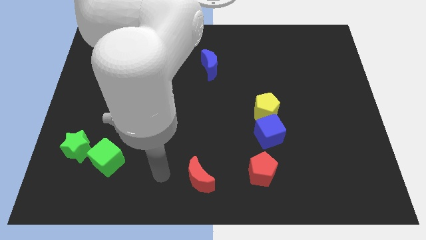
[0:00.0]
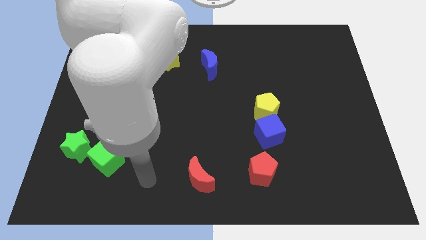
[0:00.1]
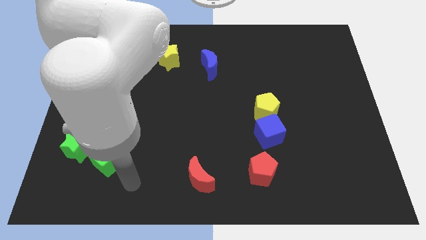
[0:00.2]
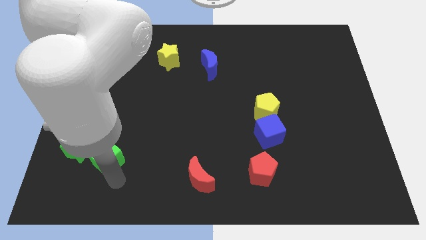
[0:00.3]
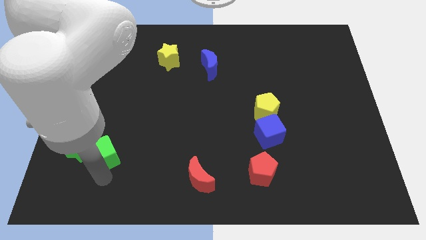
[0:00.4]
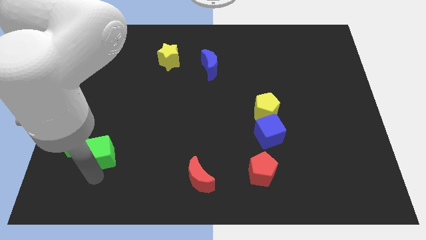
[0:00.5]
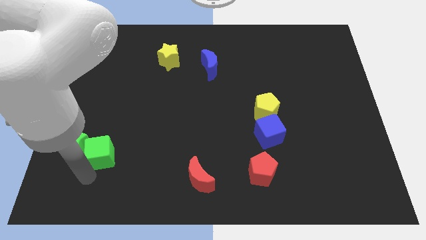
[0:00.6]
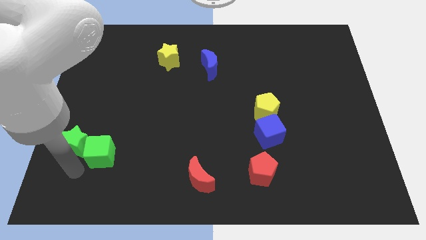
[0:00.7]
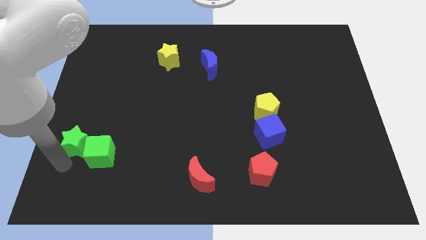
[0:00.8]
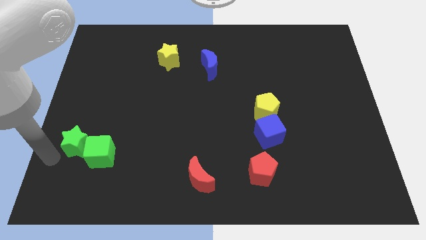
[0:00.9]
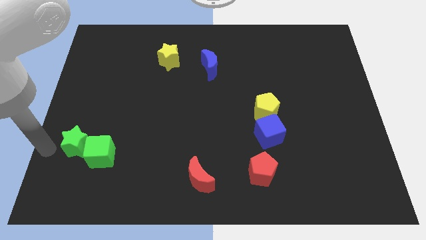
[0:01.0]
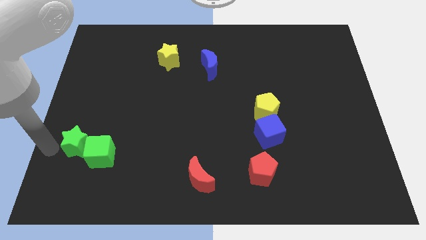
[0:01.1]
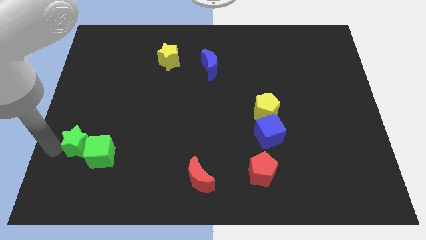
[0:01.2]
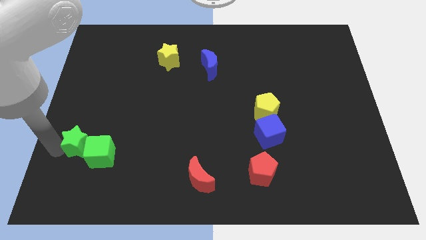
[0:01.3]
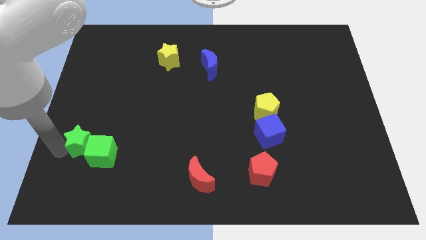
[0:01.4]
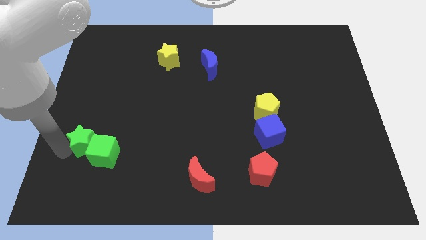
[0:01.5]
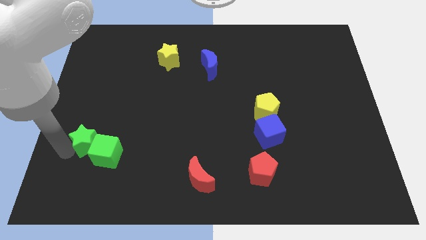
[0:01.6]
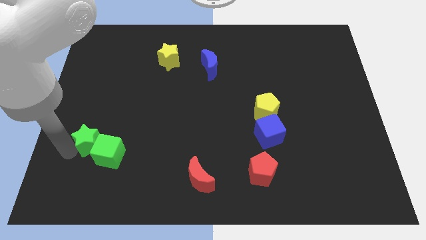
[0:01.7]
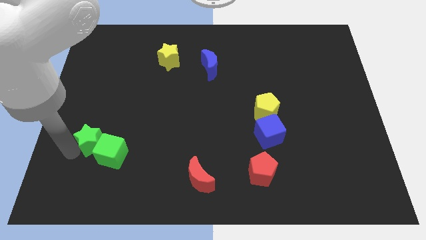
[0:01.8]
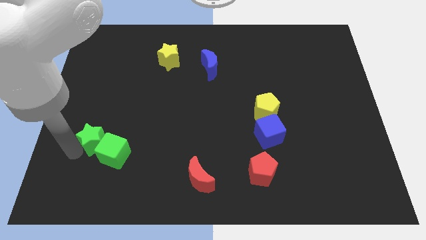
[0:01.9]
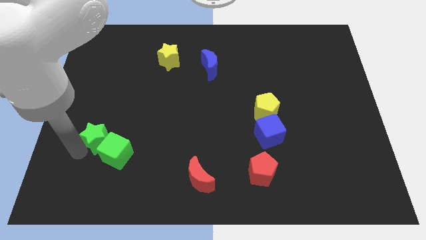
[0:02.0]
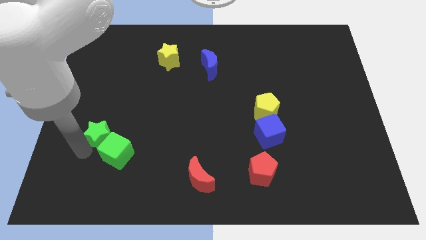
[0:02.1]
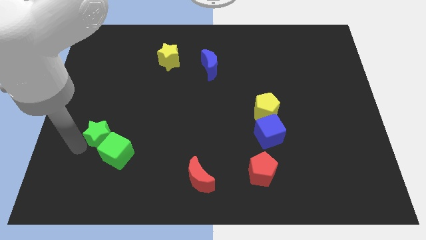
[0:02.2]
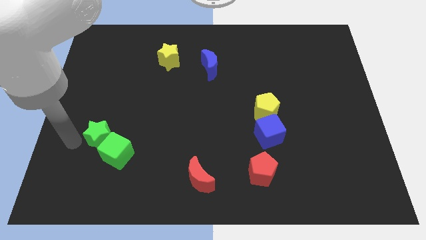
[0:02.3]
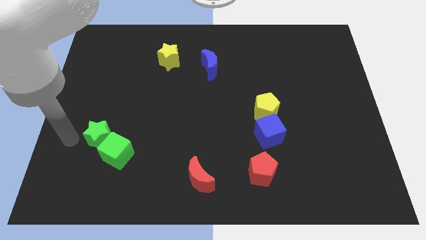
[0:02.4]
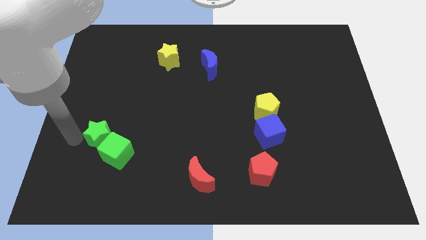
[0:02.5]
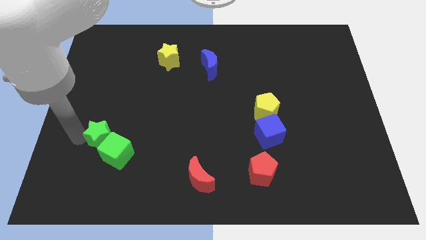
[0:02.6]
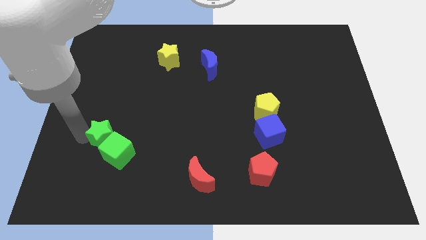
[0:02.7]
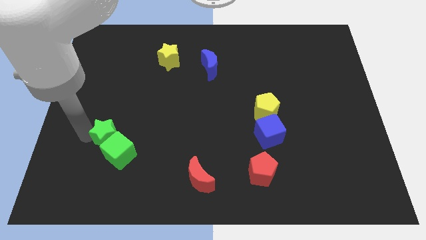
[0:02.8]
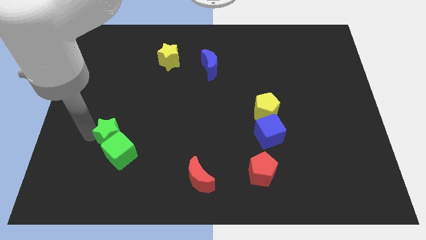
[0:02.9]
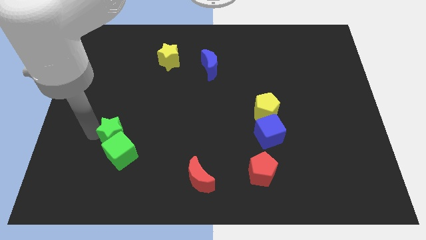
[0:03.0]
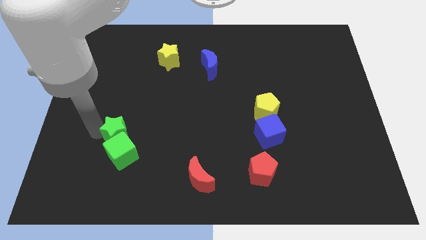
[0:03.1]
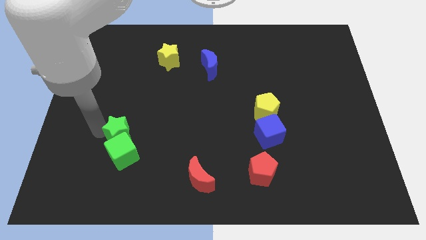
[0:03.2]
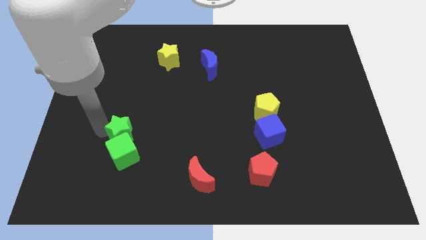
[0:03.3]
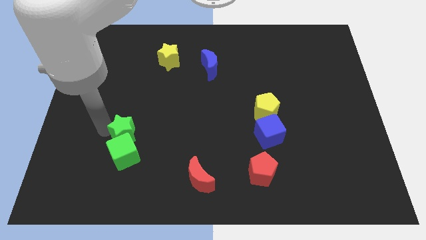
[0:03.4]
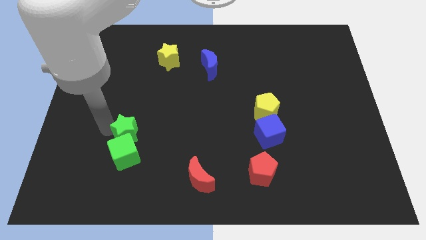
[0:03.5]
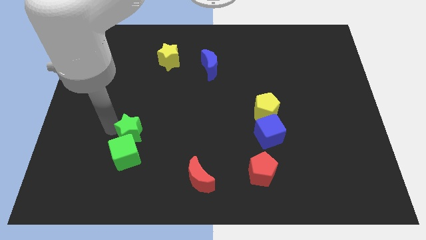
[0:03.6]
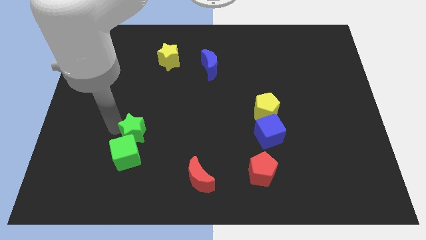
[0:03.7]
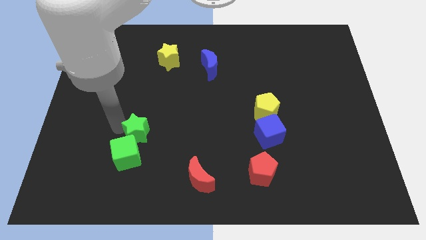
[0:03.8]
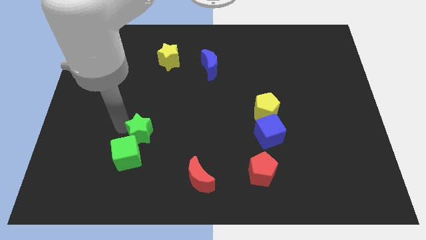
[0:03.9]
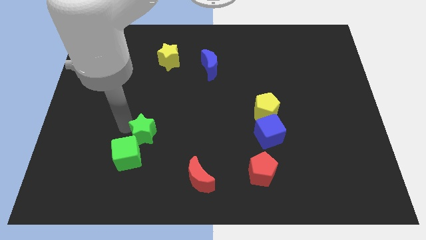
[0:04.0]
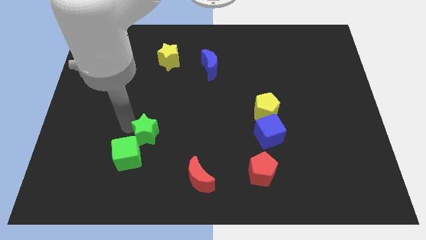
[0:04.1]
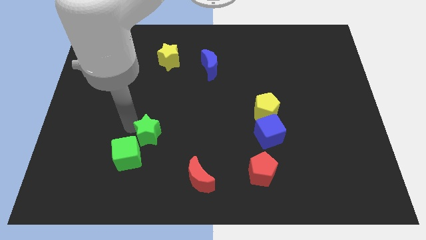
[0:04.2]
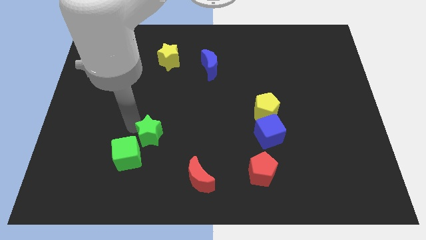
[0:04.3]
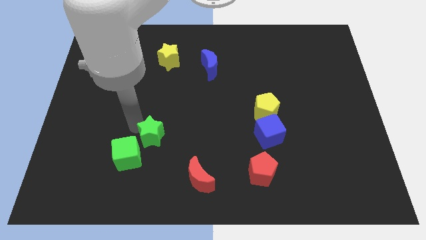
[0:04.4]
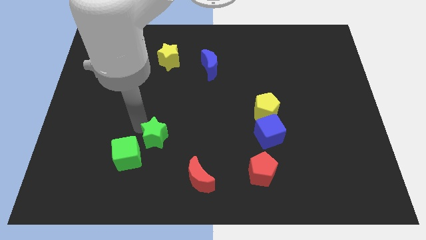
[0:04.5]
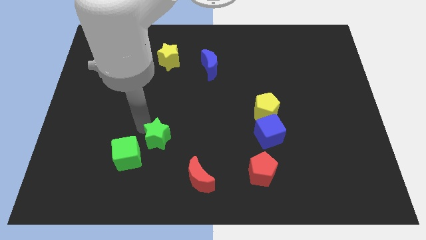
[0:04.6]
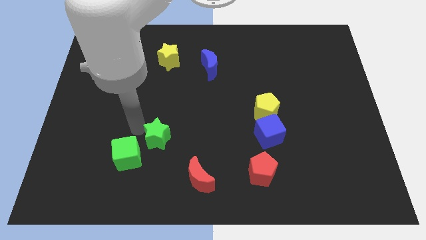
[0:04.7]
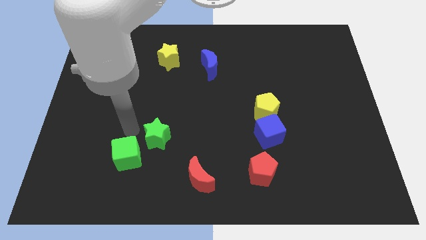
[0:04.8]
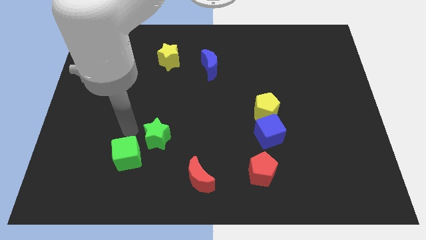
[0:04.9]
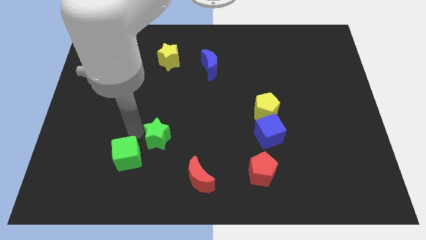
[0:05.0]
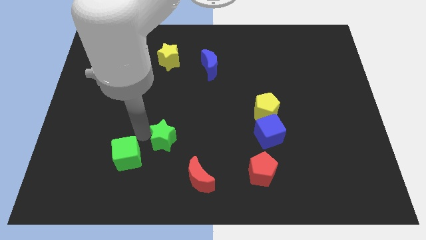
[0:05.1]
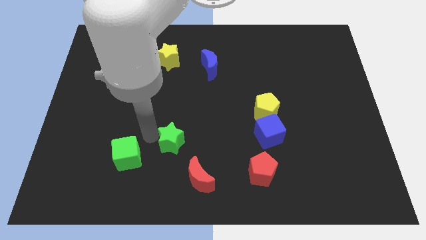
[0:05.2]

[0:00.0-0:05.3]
move the green star right

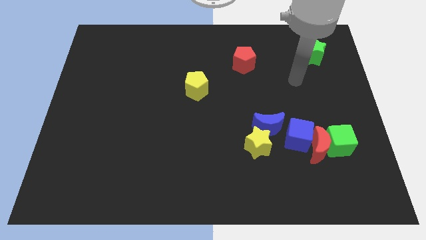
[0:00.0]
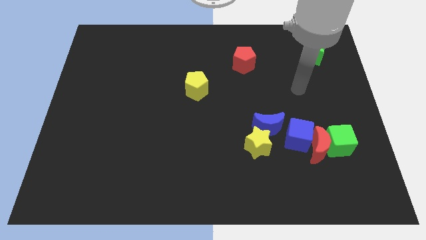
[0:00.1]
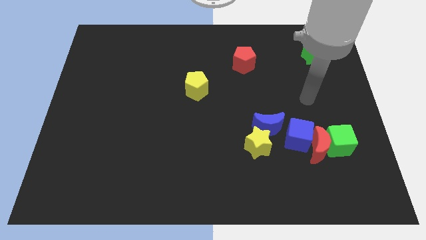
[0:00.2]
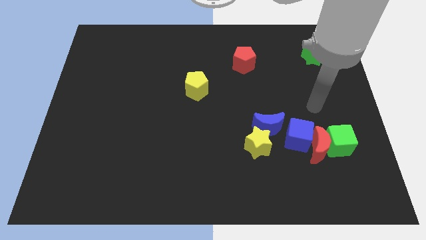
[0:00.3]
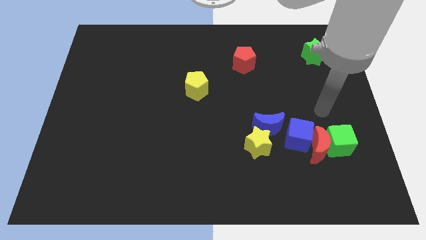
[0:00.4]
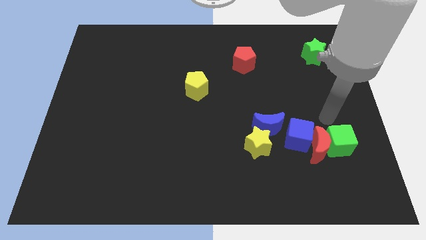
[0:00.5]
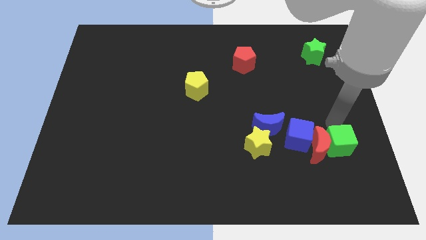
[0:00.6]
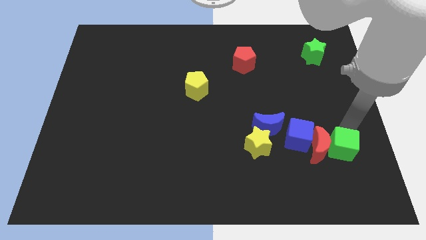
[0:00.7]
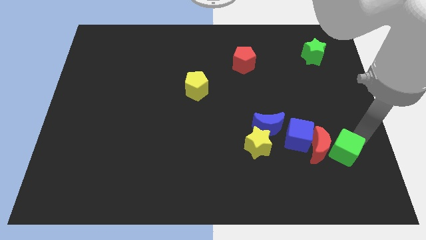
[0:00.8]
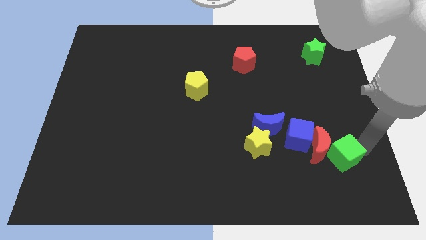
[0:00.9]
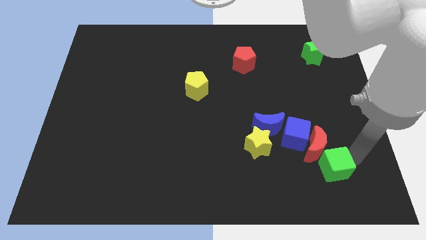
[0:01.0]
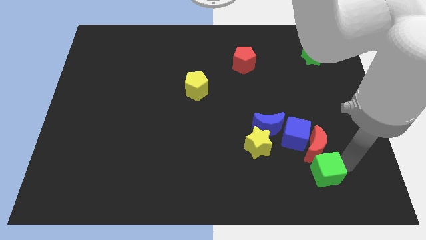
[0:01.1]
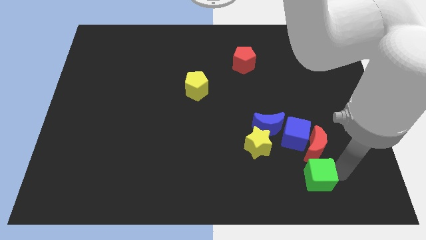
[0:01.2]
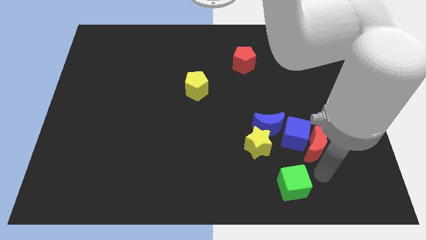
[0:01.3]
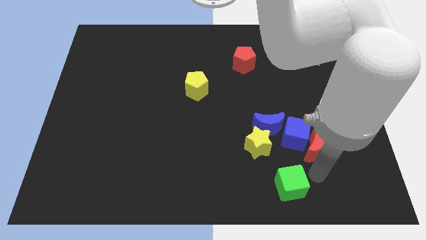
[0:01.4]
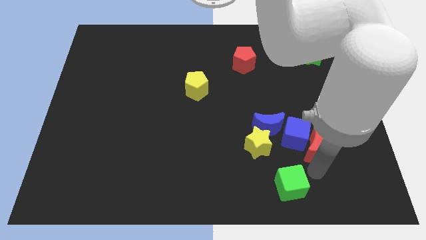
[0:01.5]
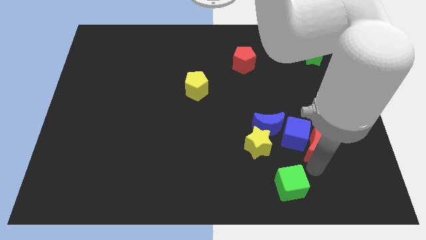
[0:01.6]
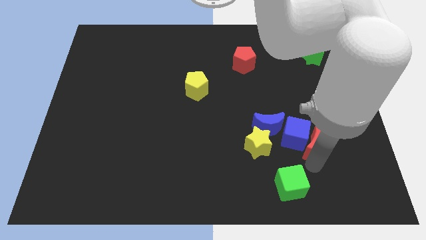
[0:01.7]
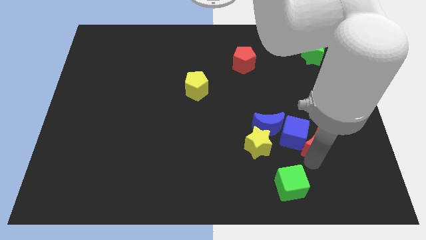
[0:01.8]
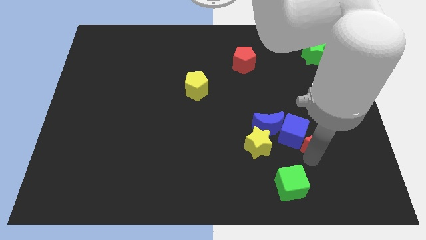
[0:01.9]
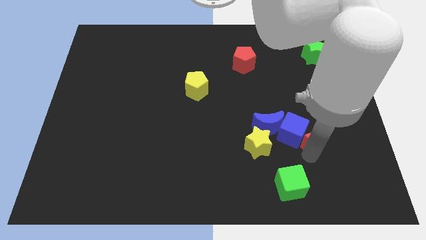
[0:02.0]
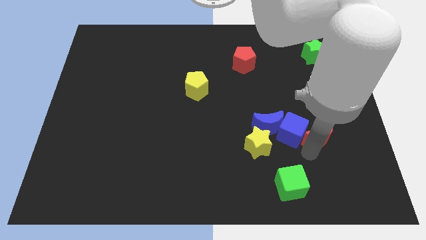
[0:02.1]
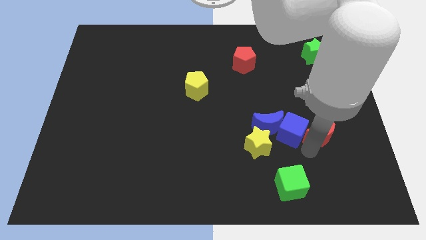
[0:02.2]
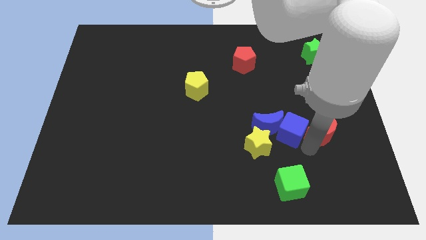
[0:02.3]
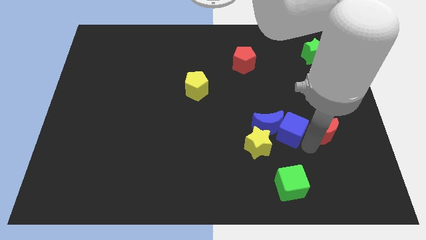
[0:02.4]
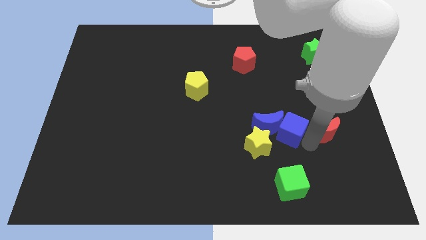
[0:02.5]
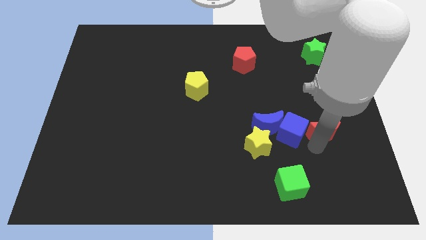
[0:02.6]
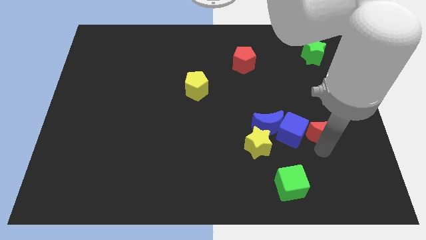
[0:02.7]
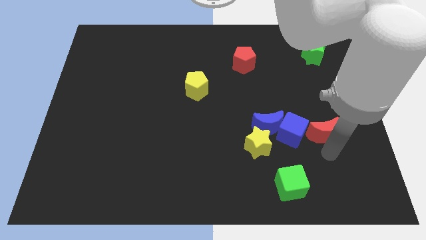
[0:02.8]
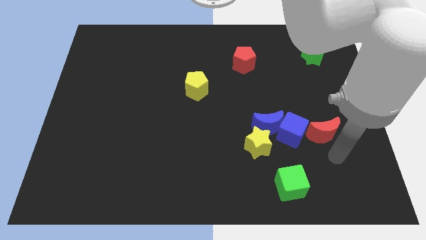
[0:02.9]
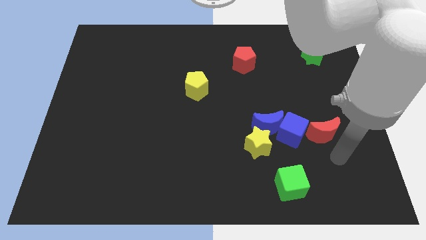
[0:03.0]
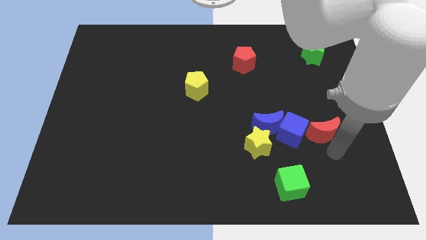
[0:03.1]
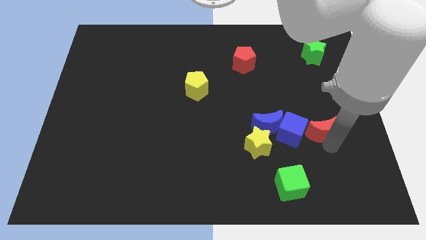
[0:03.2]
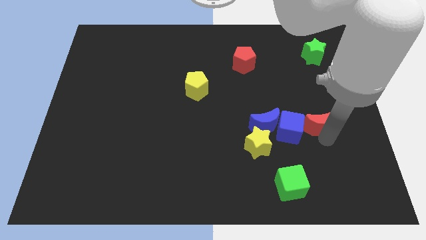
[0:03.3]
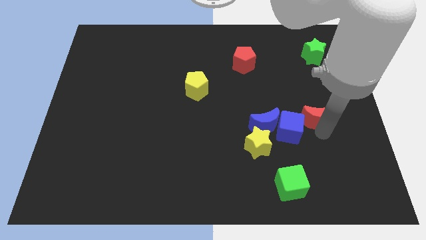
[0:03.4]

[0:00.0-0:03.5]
move the red moon up slightly
